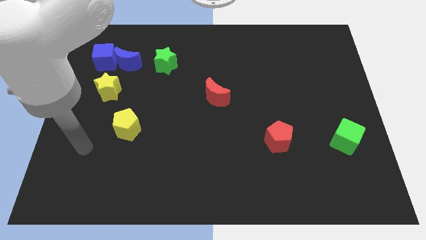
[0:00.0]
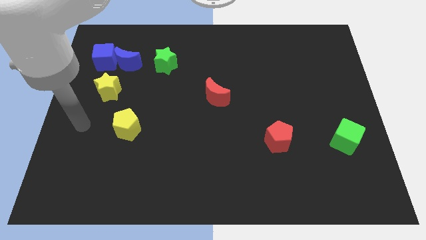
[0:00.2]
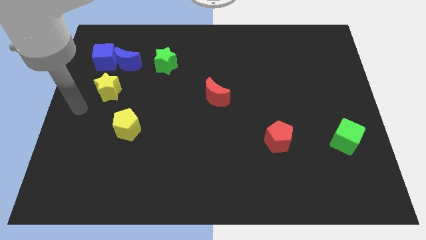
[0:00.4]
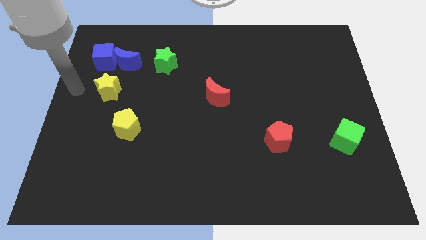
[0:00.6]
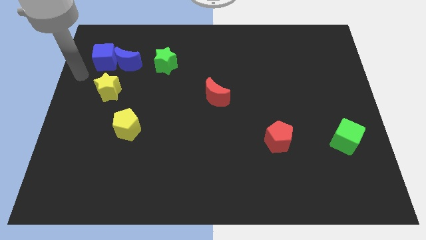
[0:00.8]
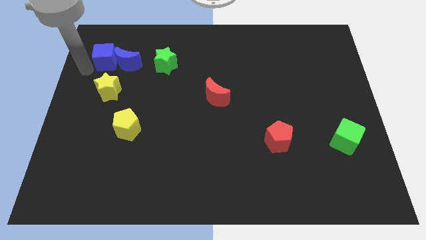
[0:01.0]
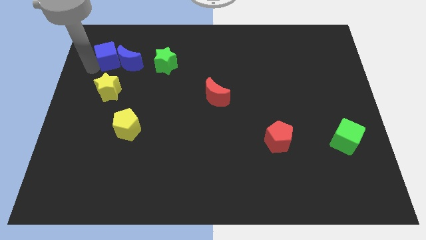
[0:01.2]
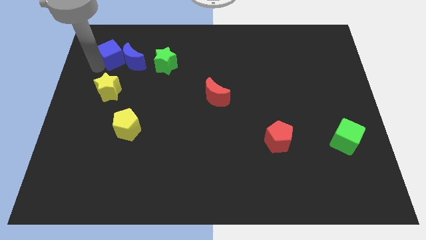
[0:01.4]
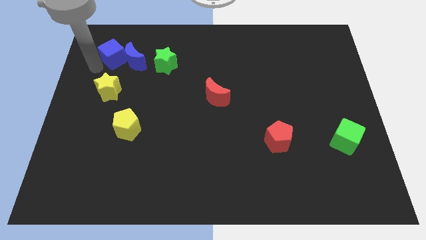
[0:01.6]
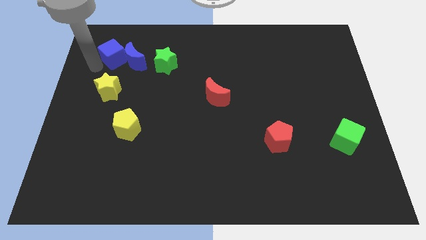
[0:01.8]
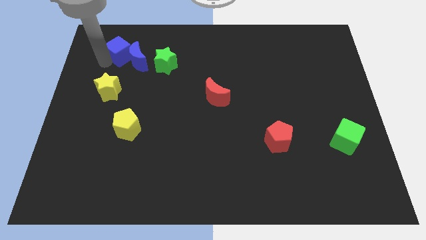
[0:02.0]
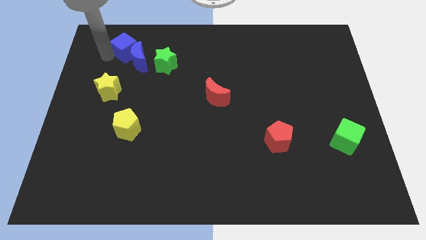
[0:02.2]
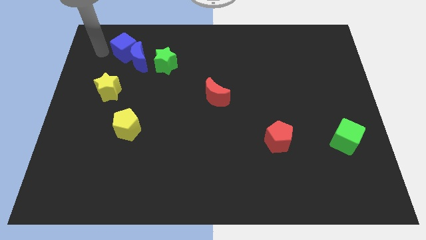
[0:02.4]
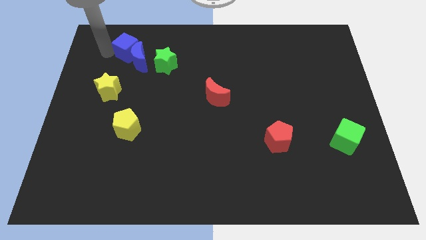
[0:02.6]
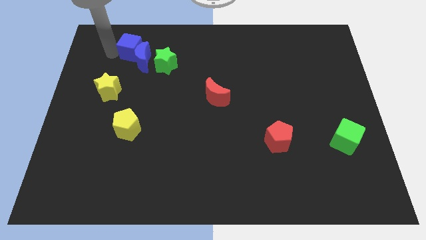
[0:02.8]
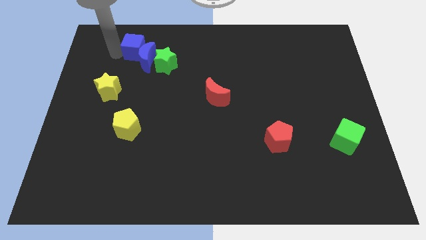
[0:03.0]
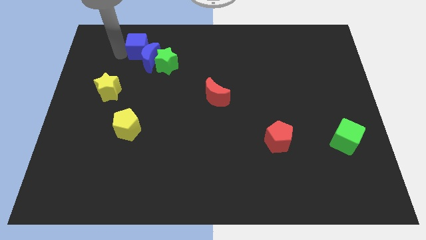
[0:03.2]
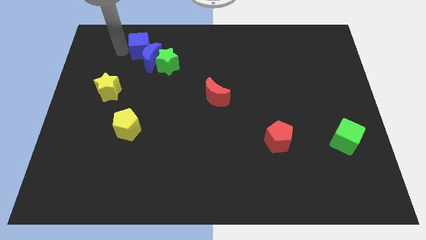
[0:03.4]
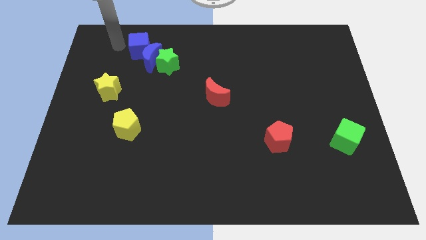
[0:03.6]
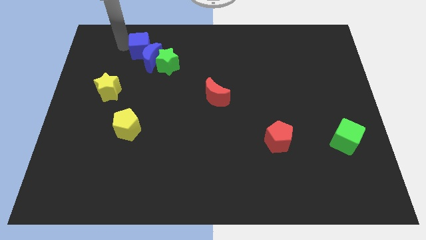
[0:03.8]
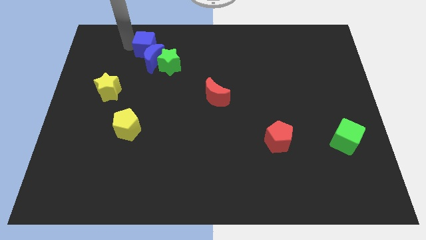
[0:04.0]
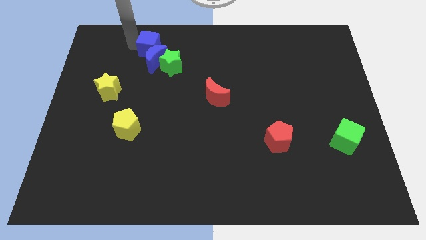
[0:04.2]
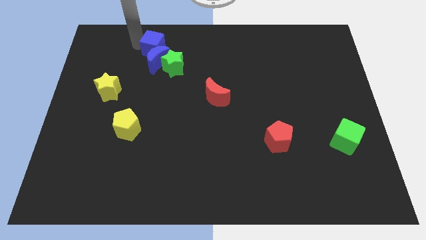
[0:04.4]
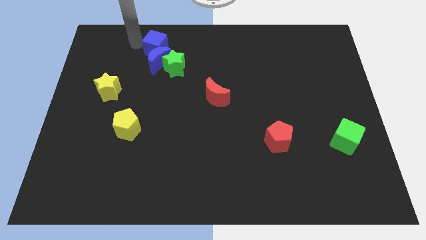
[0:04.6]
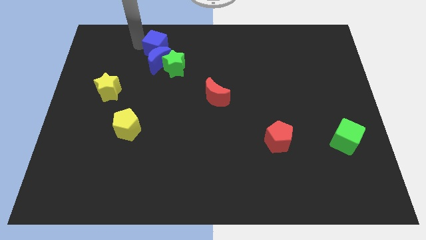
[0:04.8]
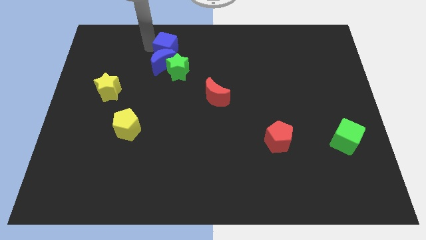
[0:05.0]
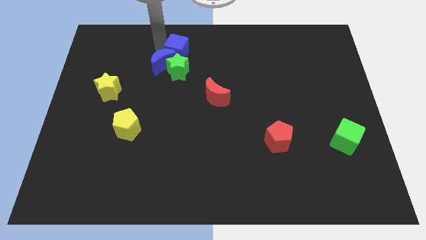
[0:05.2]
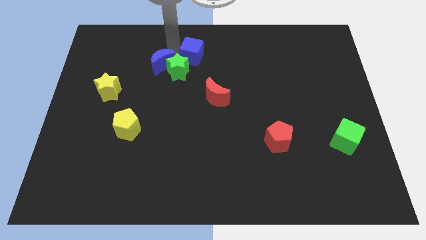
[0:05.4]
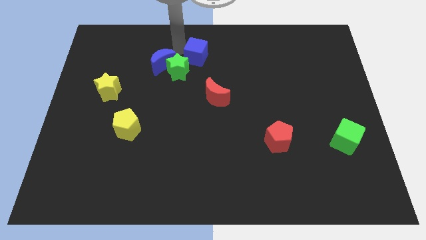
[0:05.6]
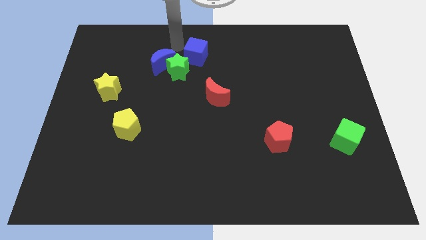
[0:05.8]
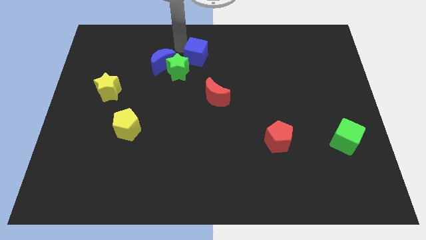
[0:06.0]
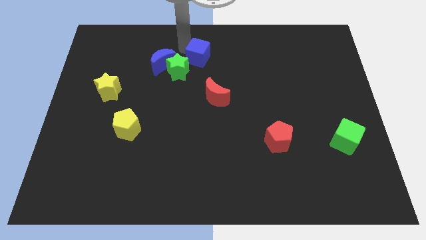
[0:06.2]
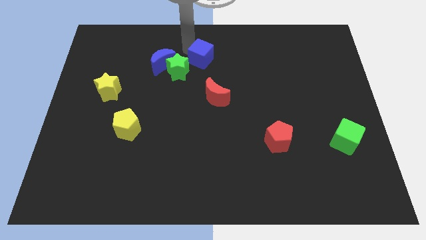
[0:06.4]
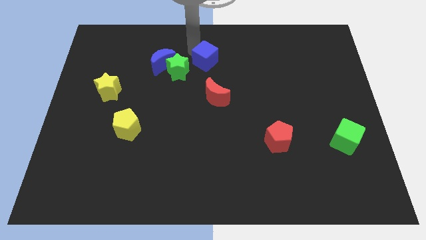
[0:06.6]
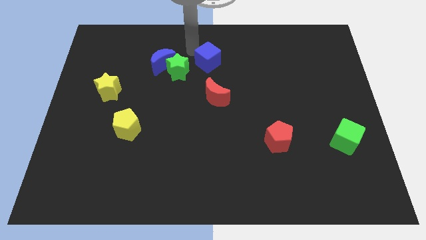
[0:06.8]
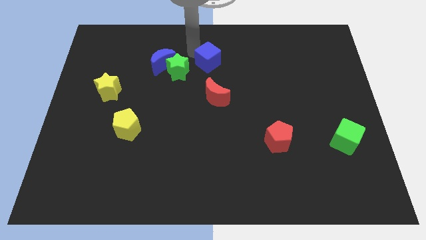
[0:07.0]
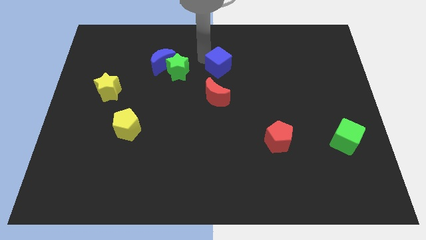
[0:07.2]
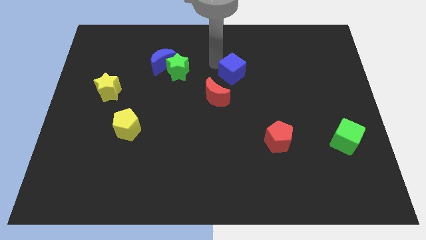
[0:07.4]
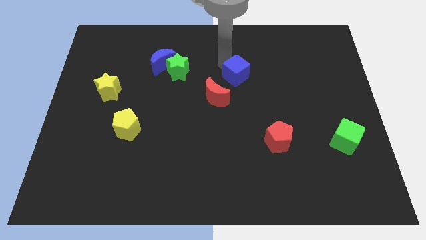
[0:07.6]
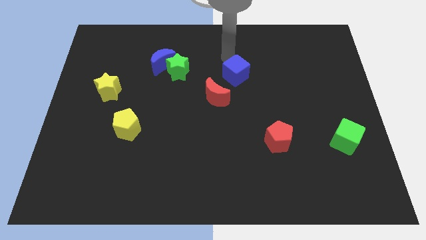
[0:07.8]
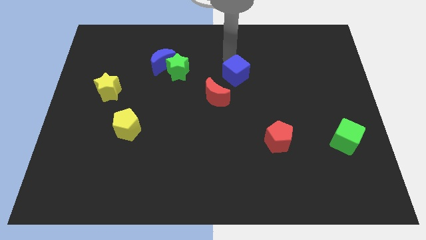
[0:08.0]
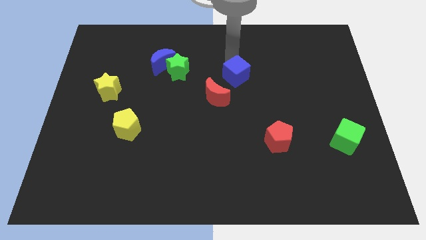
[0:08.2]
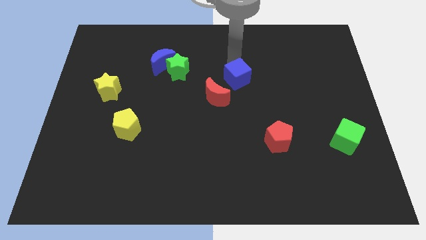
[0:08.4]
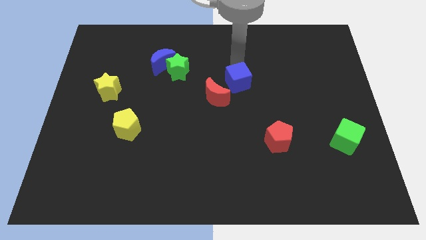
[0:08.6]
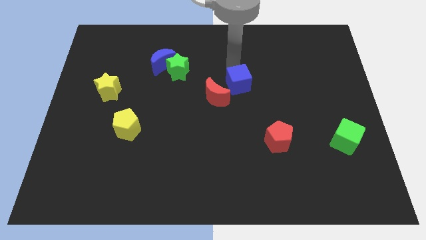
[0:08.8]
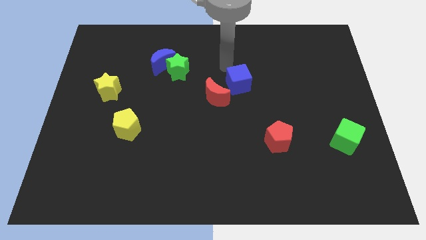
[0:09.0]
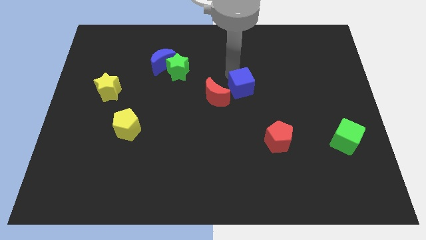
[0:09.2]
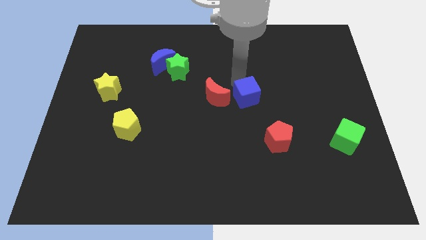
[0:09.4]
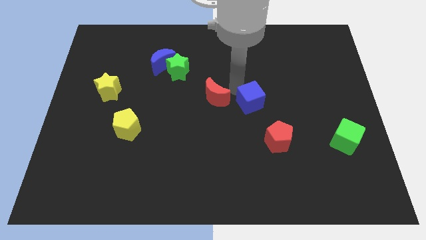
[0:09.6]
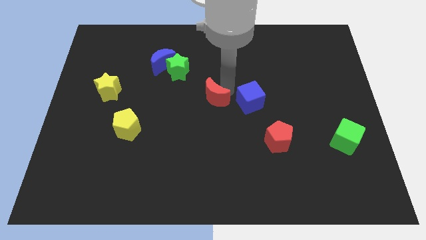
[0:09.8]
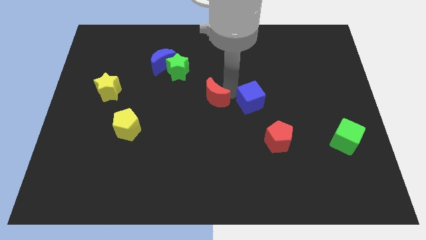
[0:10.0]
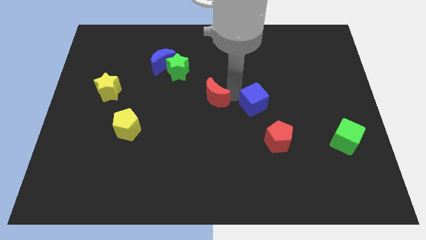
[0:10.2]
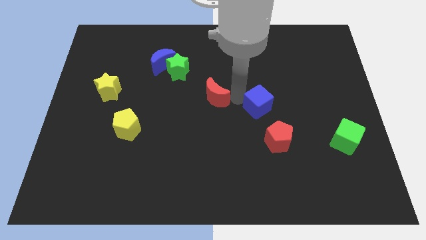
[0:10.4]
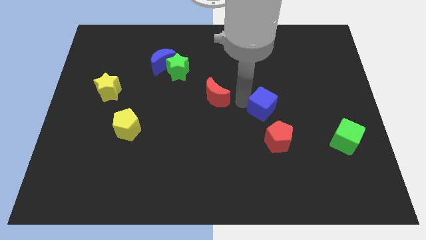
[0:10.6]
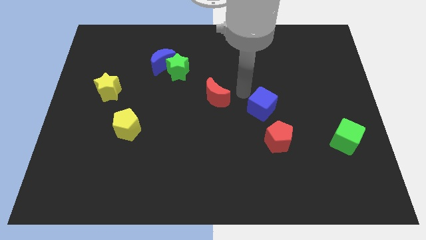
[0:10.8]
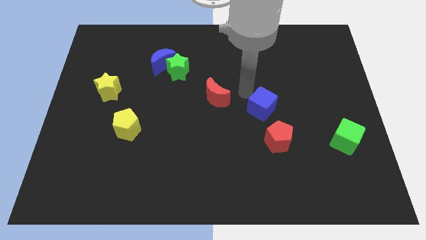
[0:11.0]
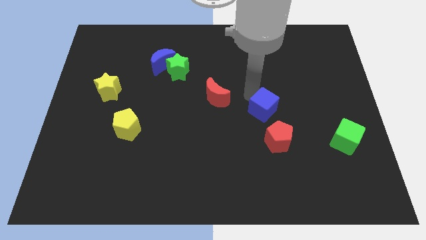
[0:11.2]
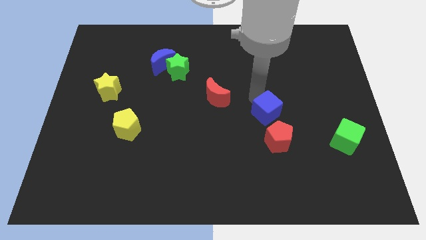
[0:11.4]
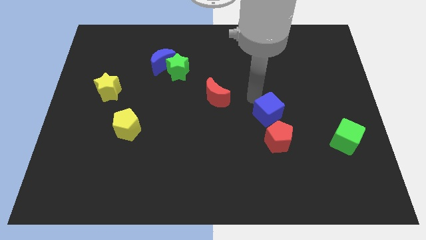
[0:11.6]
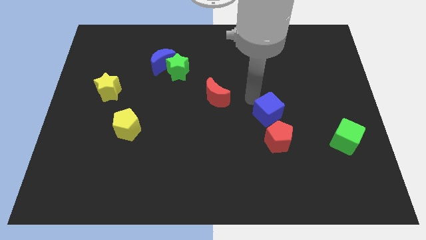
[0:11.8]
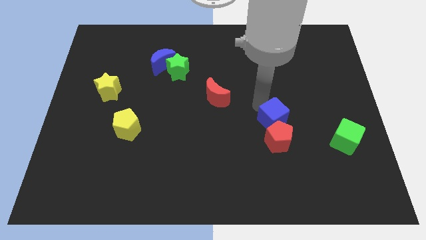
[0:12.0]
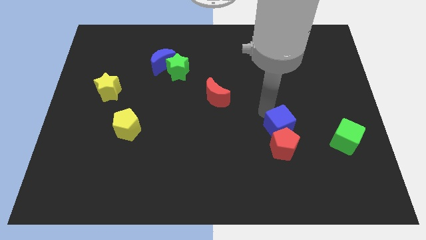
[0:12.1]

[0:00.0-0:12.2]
push the blue cube left of the green cube

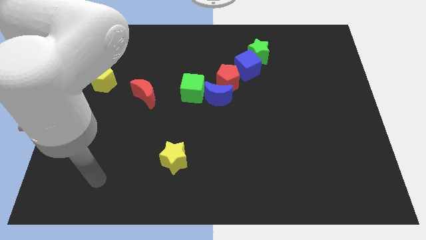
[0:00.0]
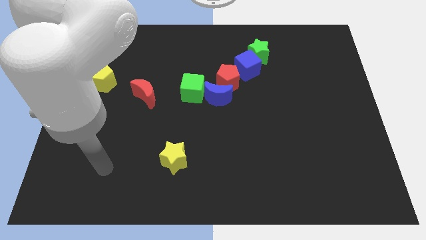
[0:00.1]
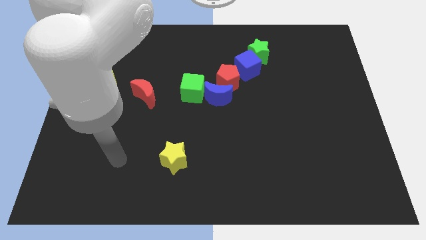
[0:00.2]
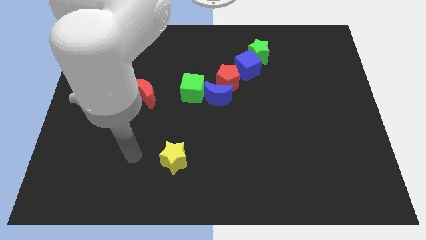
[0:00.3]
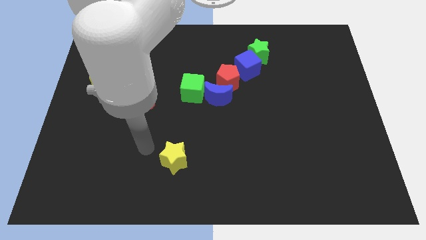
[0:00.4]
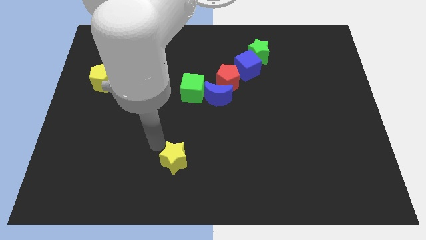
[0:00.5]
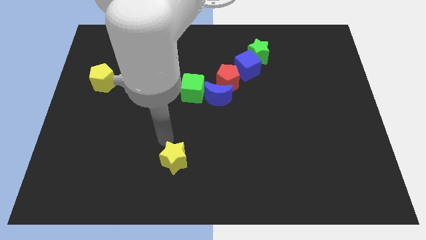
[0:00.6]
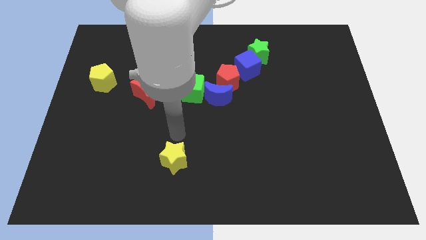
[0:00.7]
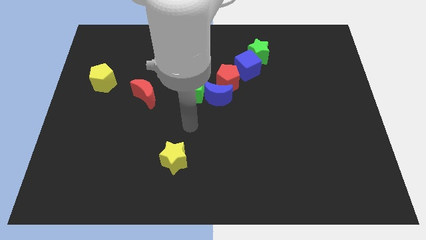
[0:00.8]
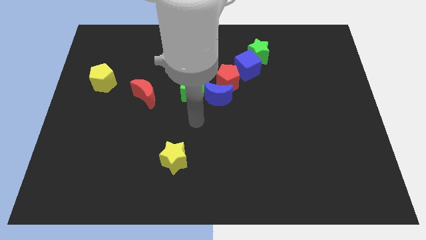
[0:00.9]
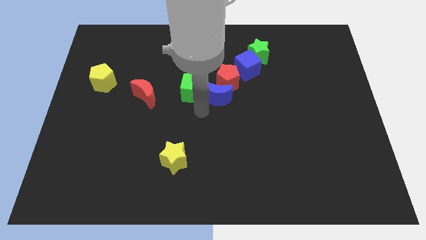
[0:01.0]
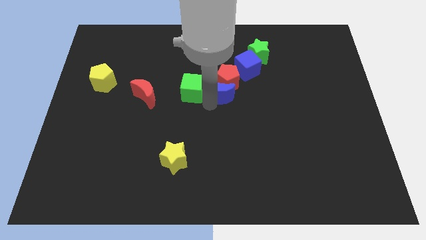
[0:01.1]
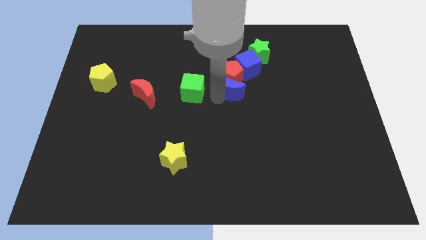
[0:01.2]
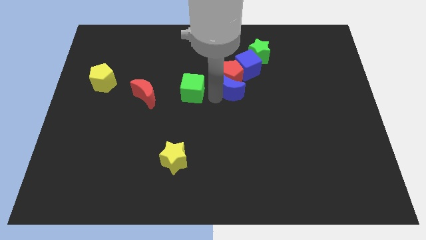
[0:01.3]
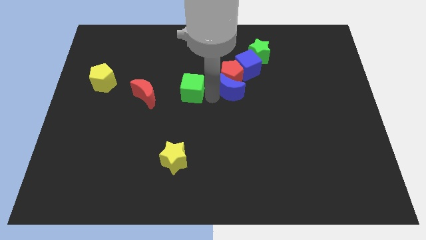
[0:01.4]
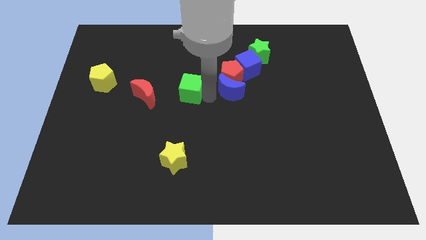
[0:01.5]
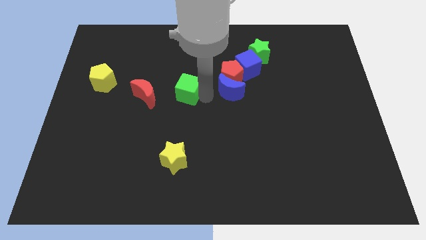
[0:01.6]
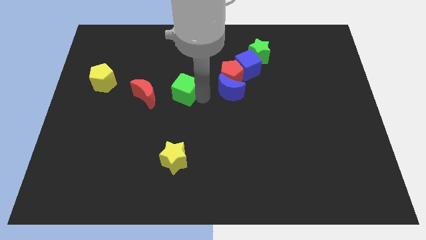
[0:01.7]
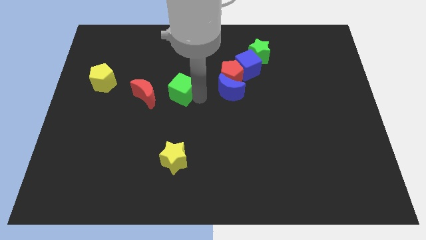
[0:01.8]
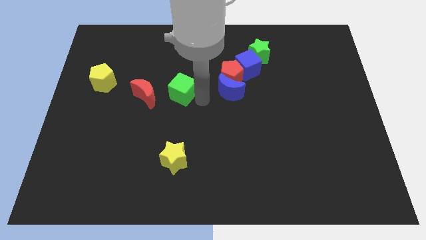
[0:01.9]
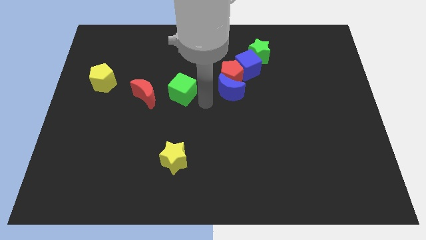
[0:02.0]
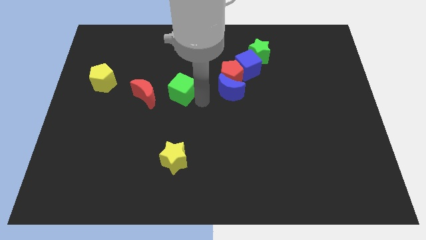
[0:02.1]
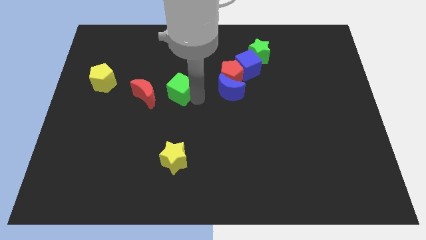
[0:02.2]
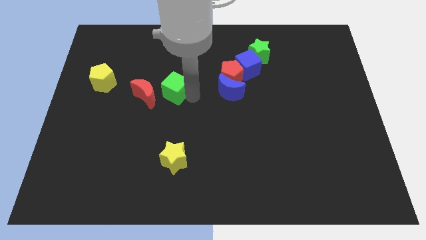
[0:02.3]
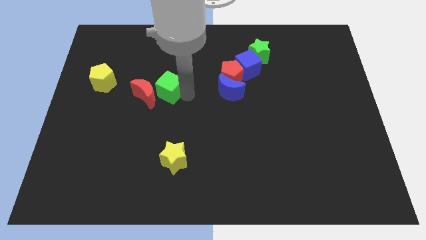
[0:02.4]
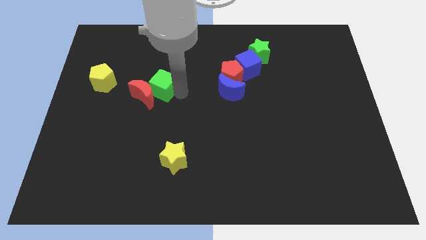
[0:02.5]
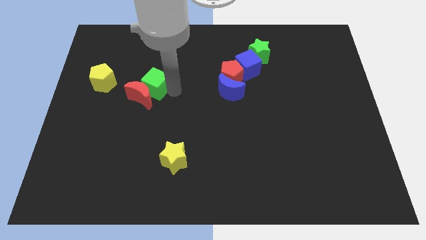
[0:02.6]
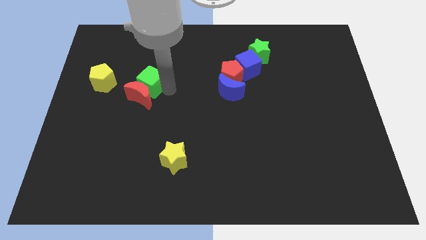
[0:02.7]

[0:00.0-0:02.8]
slide the green cube to the top left side of the red moon
